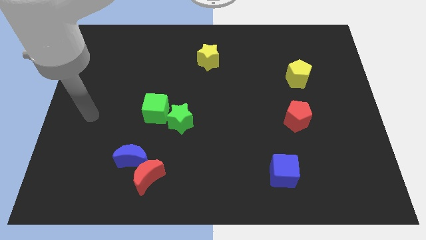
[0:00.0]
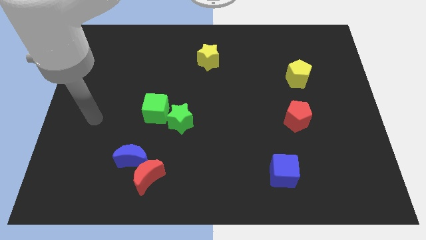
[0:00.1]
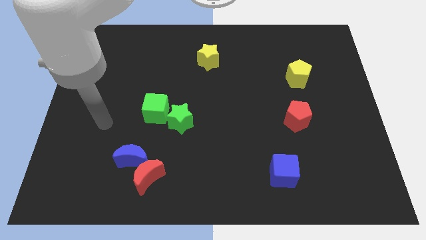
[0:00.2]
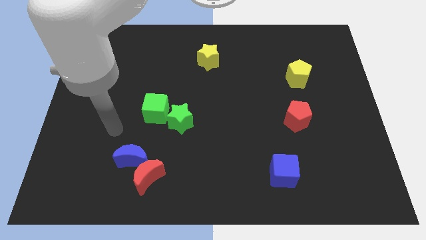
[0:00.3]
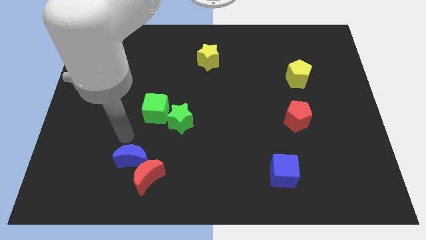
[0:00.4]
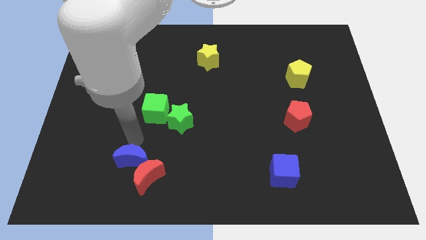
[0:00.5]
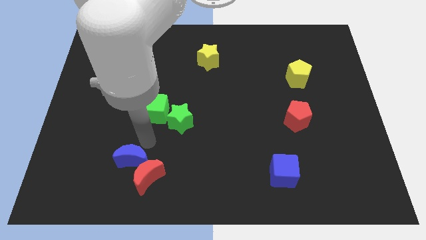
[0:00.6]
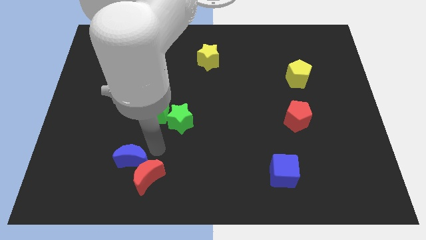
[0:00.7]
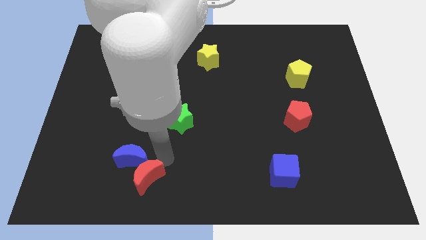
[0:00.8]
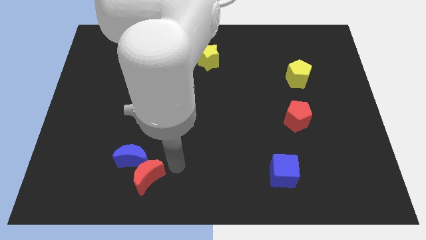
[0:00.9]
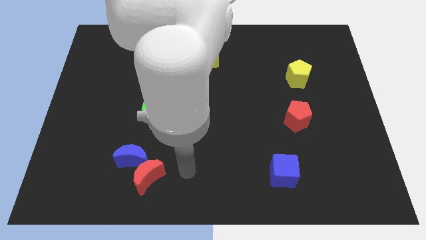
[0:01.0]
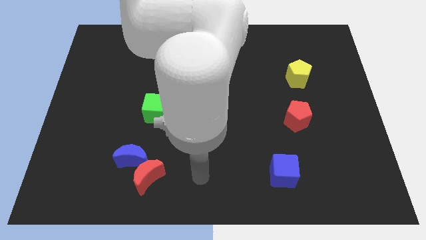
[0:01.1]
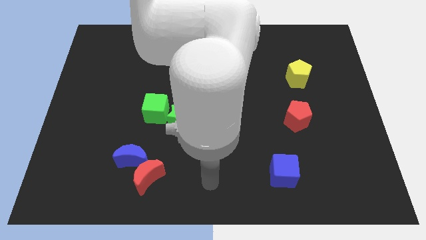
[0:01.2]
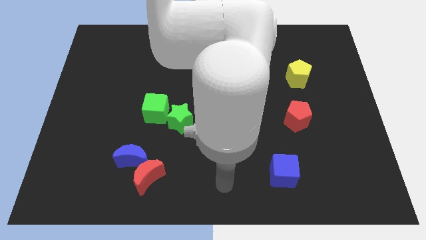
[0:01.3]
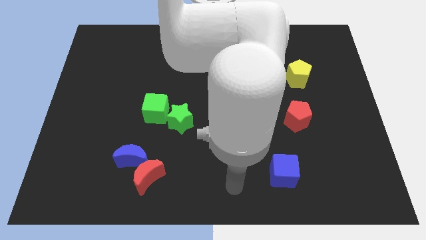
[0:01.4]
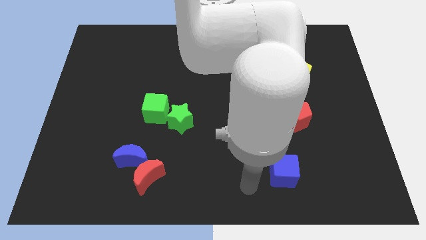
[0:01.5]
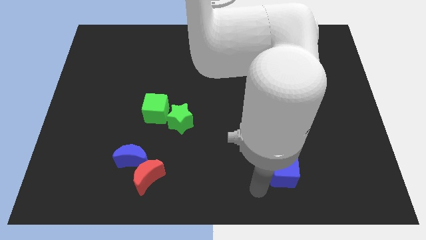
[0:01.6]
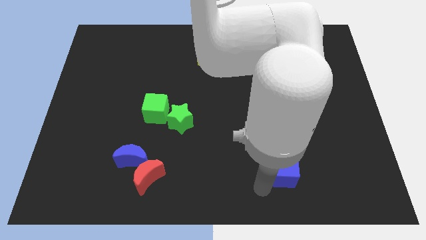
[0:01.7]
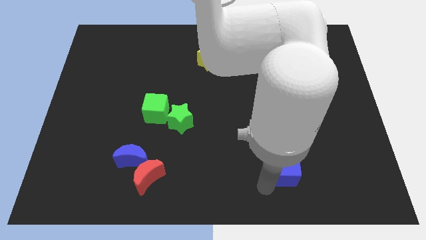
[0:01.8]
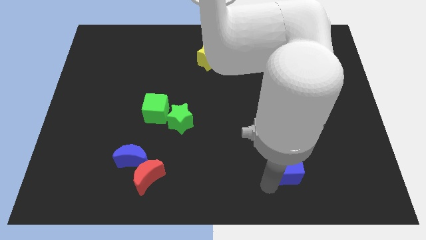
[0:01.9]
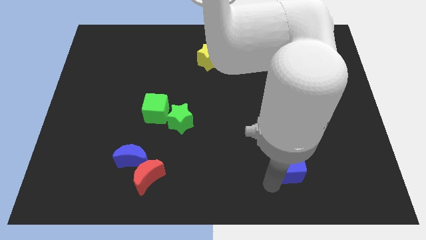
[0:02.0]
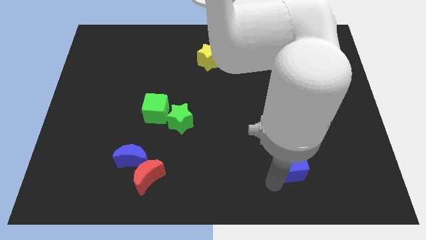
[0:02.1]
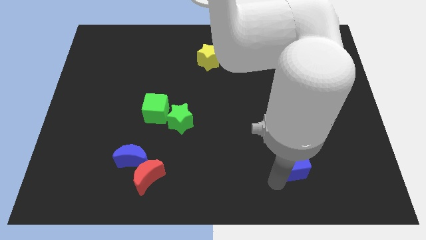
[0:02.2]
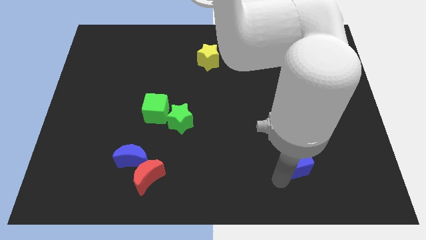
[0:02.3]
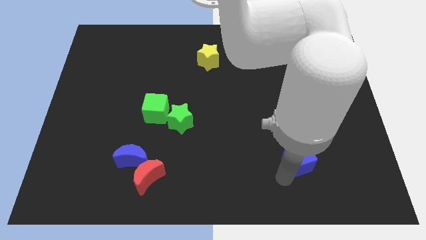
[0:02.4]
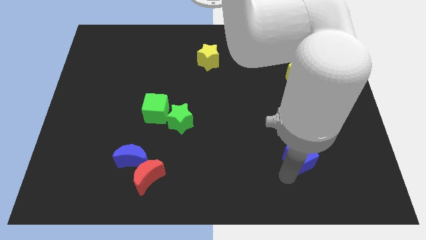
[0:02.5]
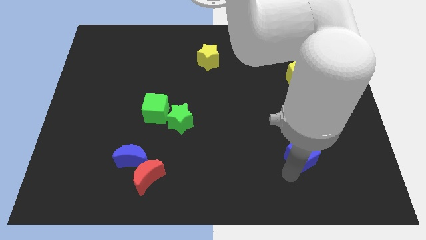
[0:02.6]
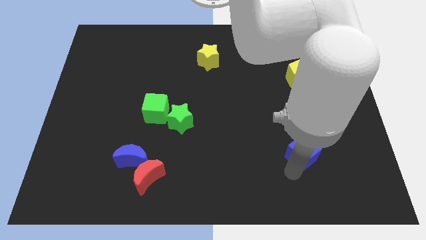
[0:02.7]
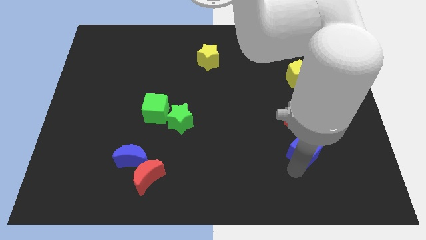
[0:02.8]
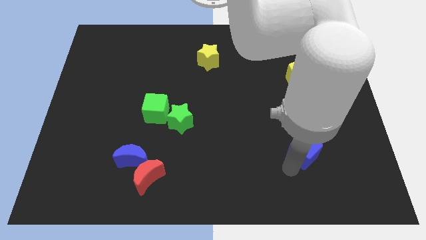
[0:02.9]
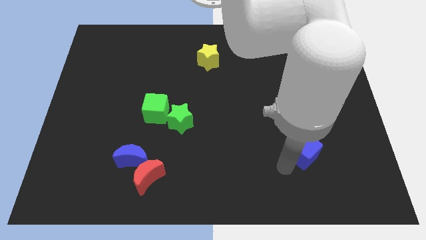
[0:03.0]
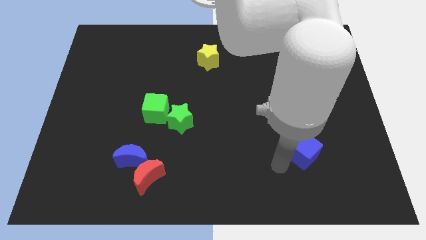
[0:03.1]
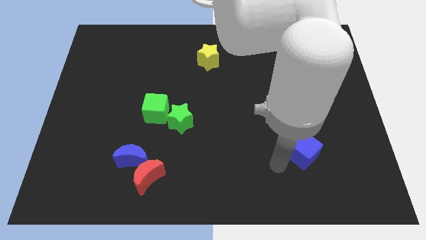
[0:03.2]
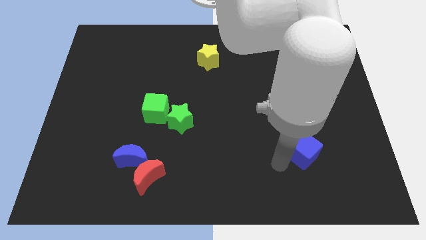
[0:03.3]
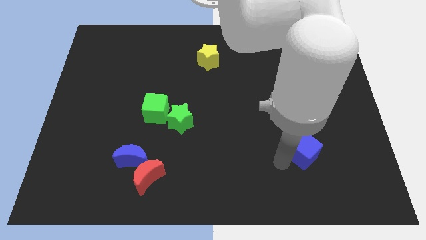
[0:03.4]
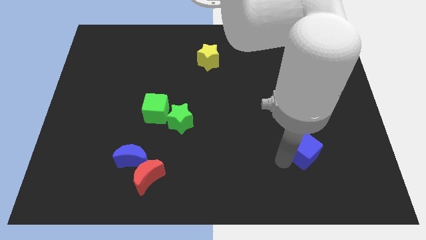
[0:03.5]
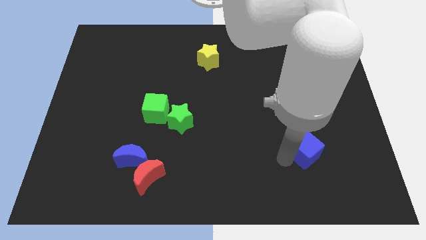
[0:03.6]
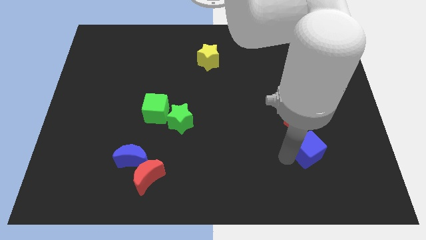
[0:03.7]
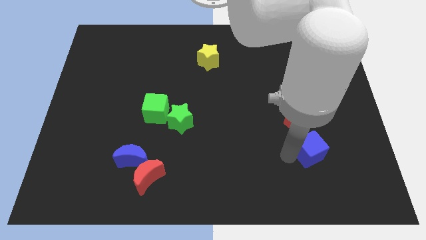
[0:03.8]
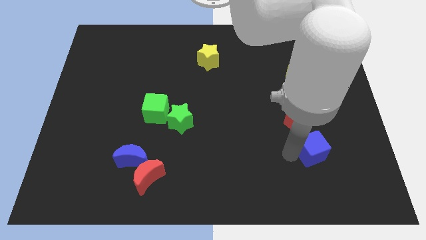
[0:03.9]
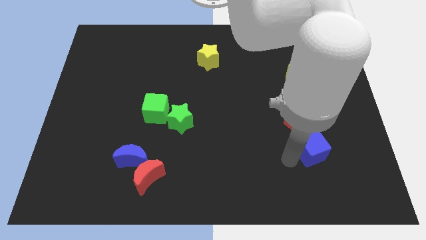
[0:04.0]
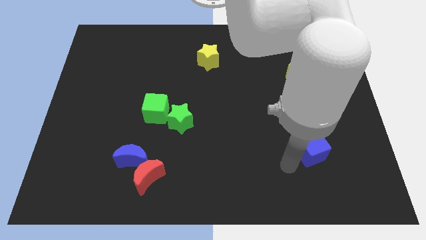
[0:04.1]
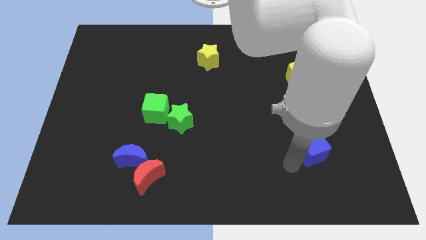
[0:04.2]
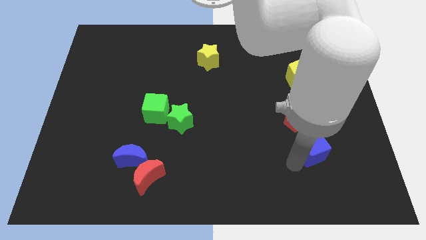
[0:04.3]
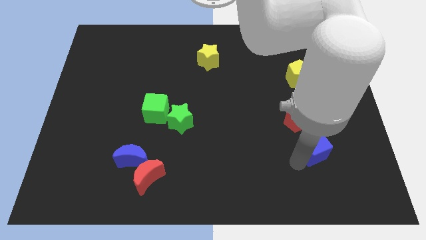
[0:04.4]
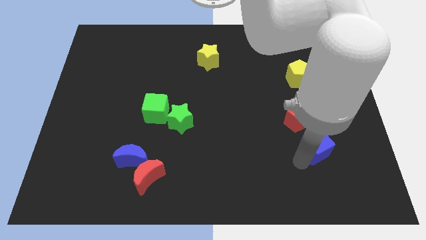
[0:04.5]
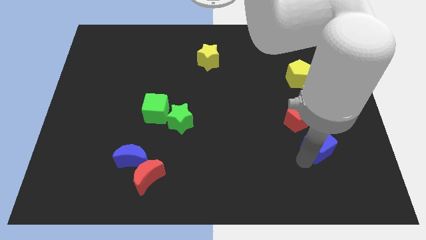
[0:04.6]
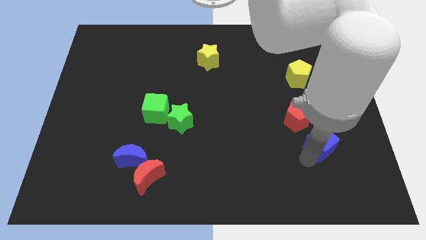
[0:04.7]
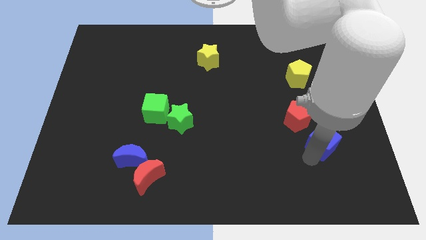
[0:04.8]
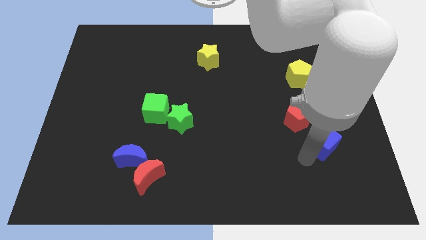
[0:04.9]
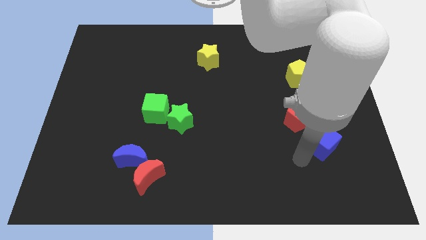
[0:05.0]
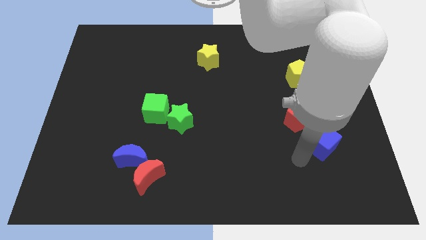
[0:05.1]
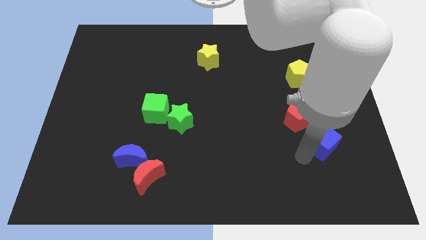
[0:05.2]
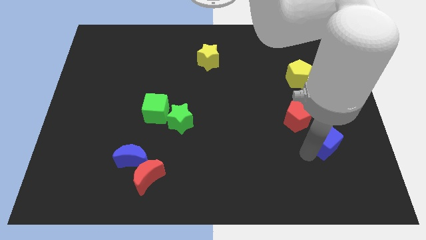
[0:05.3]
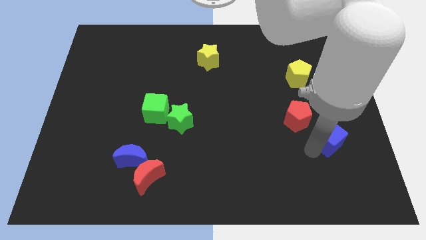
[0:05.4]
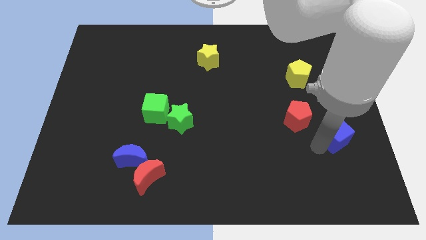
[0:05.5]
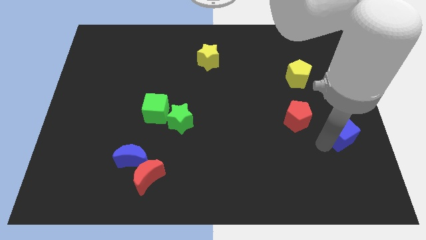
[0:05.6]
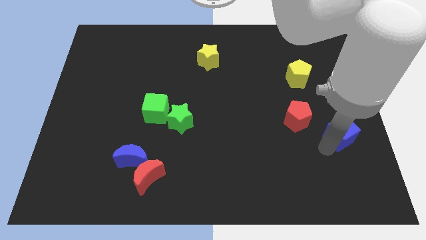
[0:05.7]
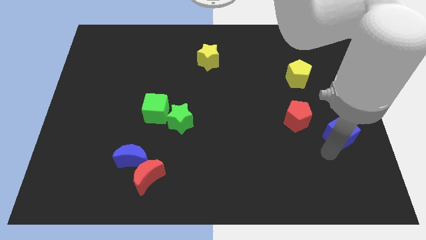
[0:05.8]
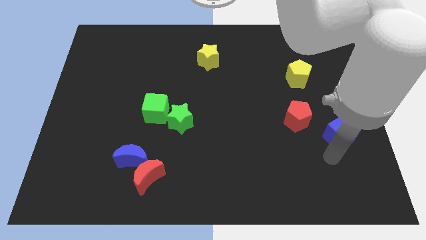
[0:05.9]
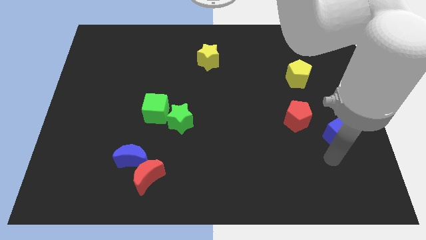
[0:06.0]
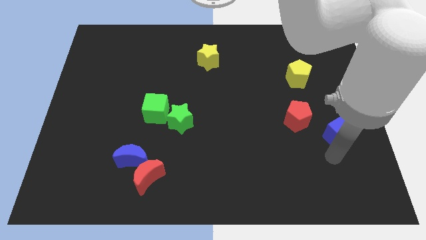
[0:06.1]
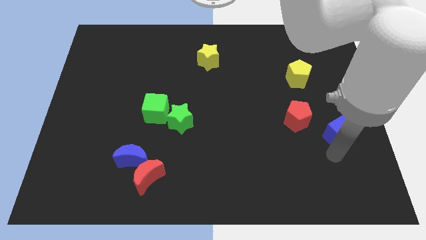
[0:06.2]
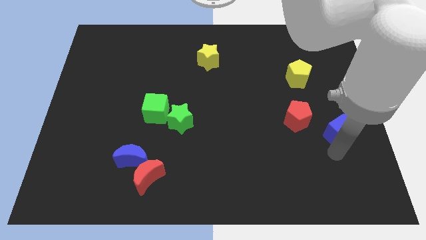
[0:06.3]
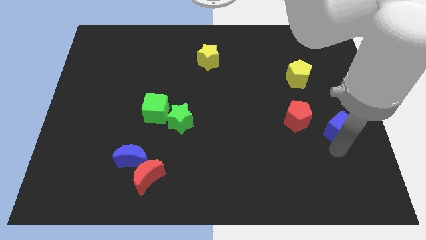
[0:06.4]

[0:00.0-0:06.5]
push the blue cube to the right side of the board

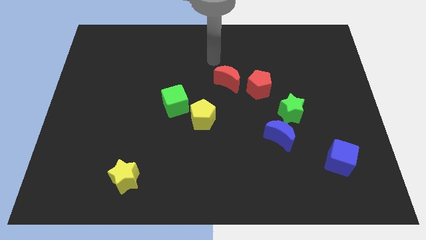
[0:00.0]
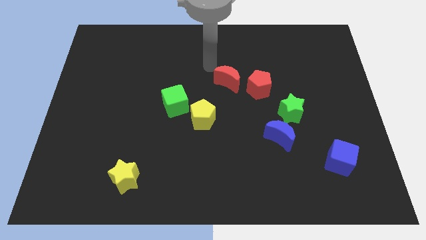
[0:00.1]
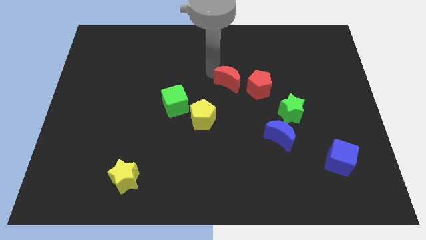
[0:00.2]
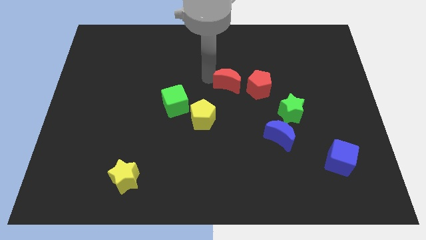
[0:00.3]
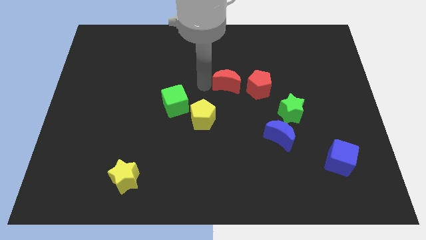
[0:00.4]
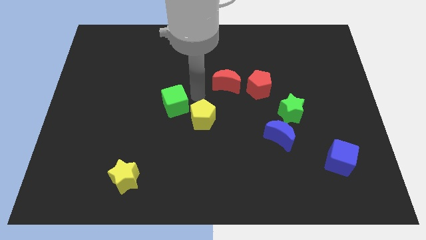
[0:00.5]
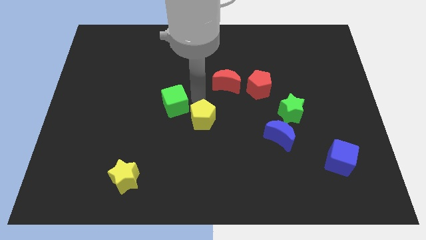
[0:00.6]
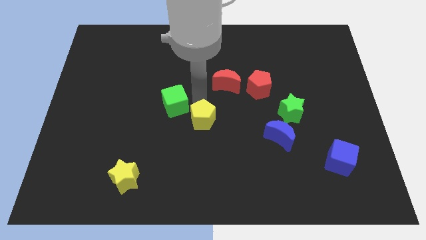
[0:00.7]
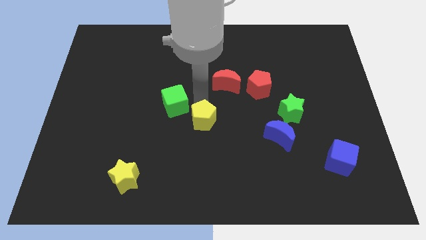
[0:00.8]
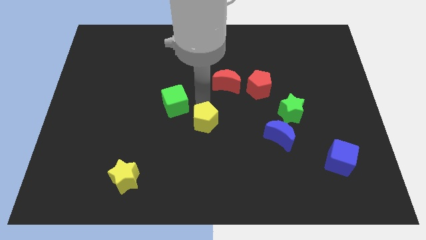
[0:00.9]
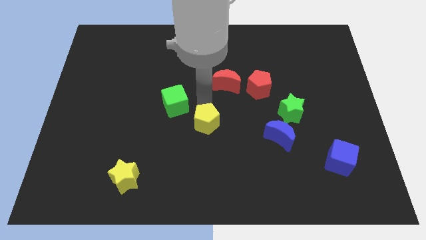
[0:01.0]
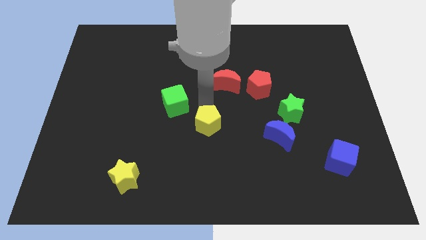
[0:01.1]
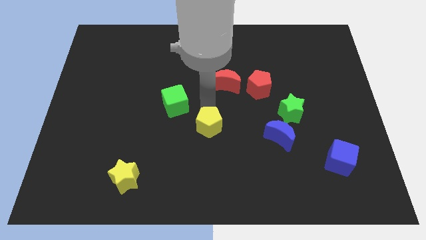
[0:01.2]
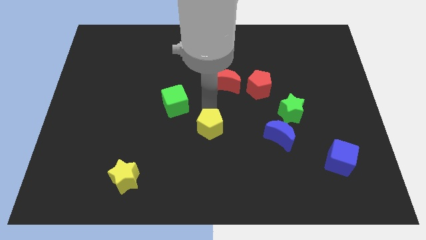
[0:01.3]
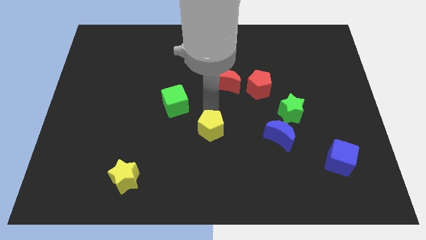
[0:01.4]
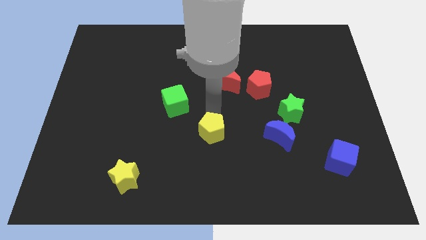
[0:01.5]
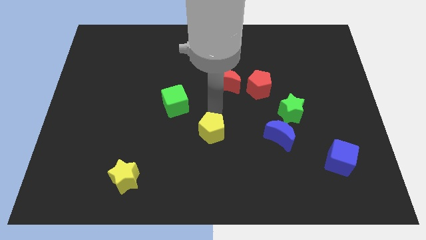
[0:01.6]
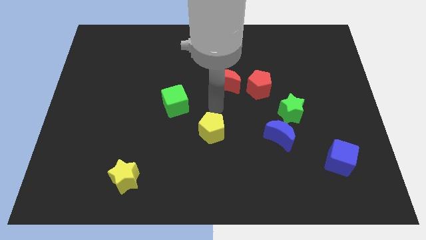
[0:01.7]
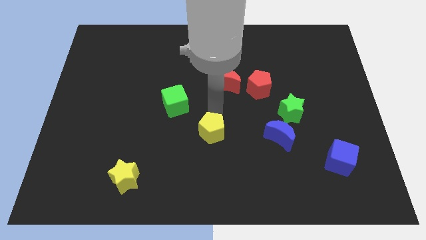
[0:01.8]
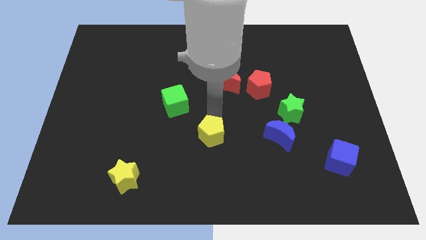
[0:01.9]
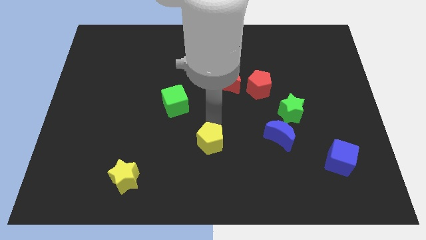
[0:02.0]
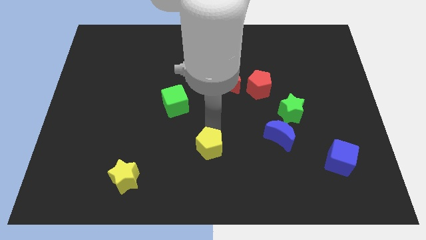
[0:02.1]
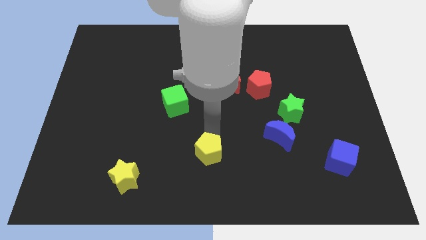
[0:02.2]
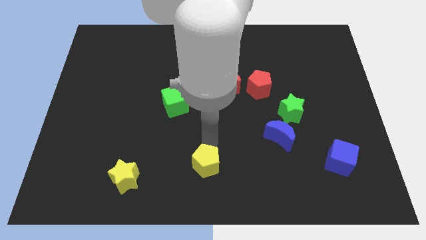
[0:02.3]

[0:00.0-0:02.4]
move the yellow pentagon to the bottom side
